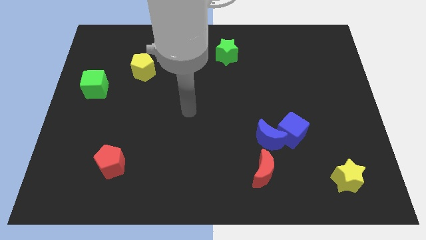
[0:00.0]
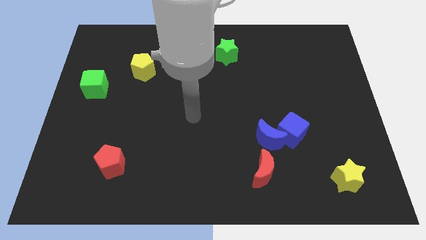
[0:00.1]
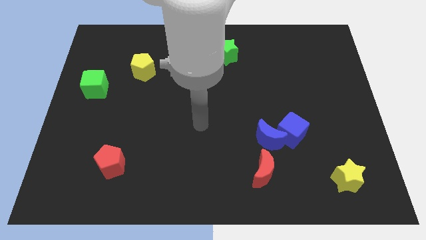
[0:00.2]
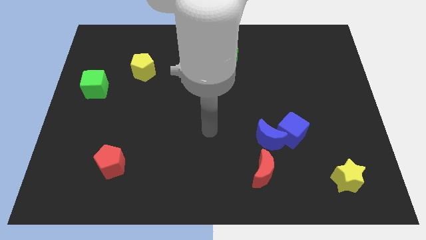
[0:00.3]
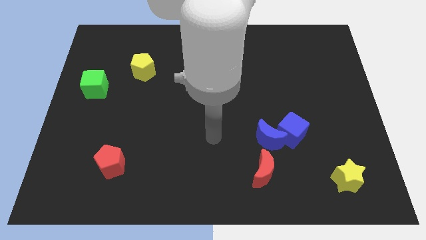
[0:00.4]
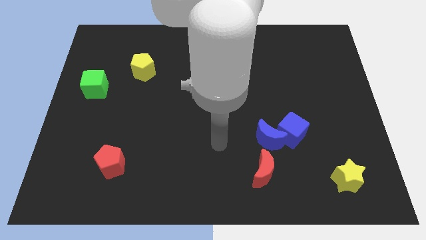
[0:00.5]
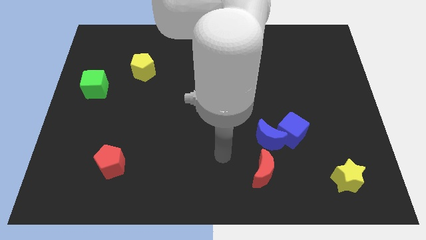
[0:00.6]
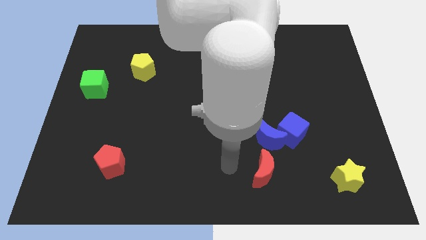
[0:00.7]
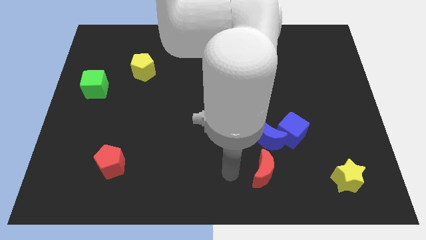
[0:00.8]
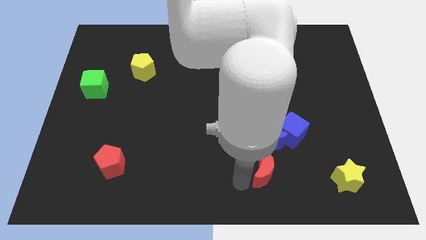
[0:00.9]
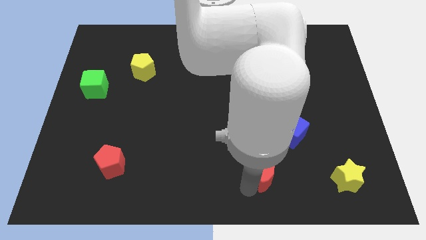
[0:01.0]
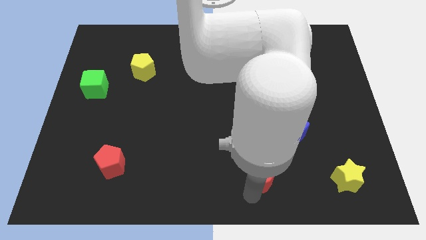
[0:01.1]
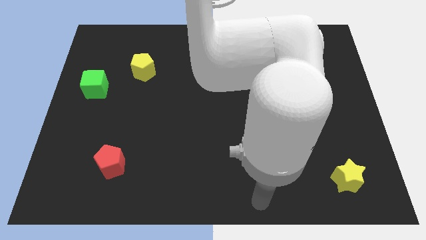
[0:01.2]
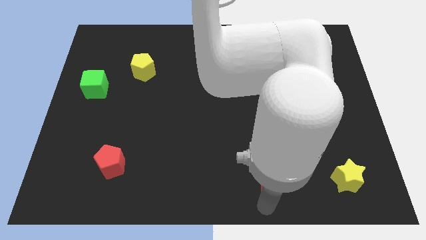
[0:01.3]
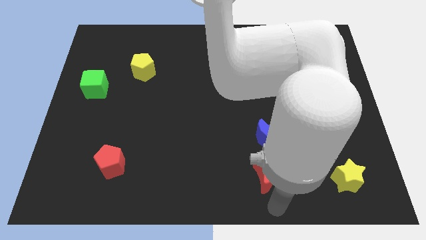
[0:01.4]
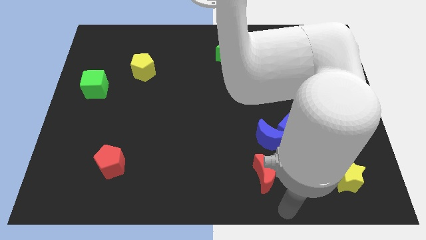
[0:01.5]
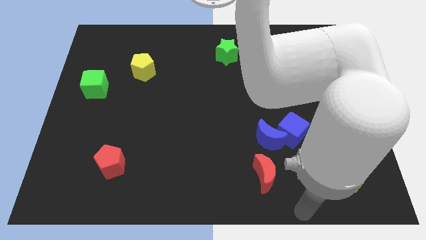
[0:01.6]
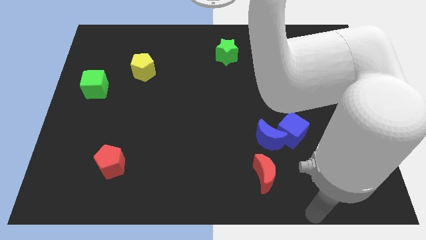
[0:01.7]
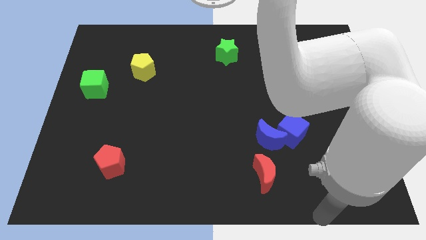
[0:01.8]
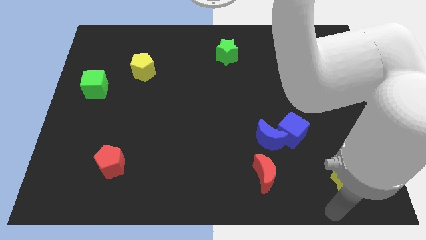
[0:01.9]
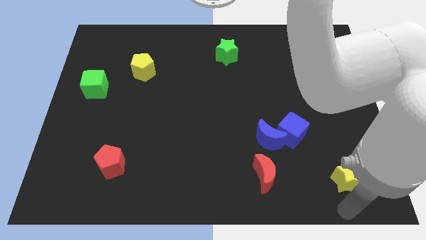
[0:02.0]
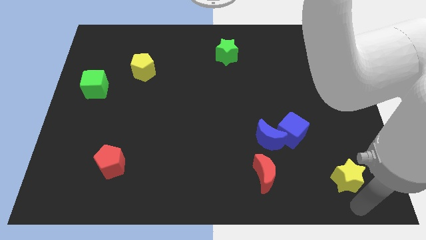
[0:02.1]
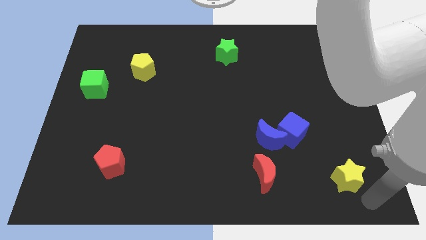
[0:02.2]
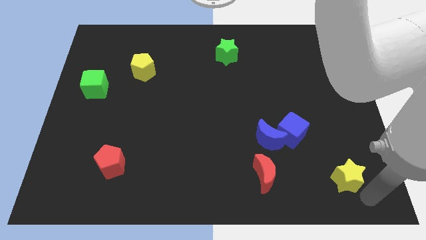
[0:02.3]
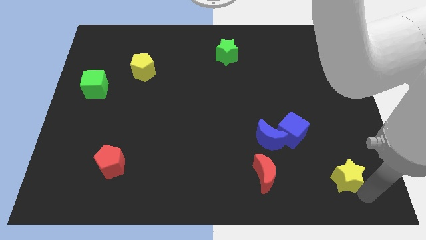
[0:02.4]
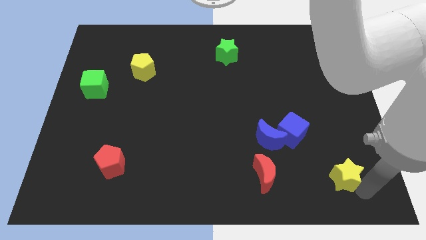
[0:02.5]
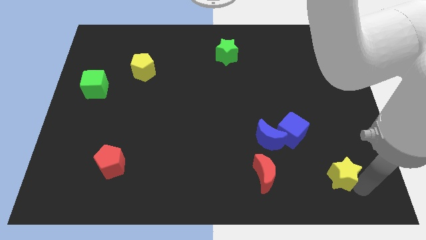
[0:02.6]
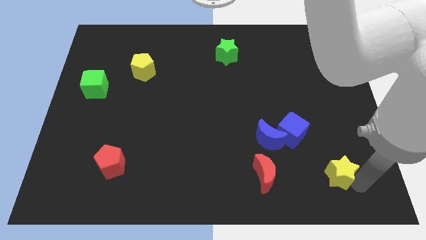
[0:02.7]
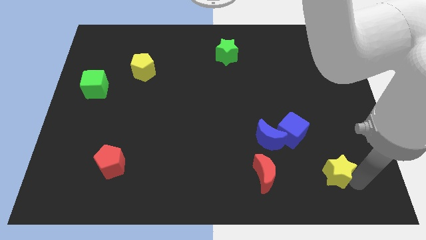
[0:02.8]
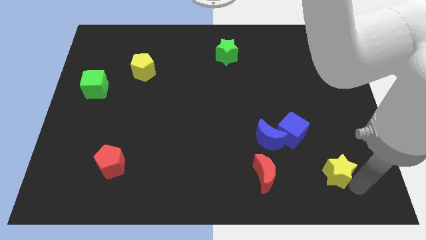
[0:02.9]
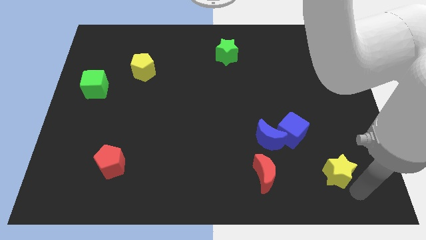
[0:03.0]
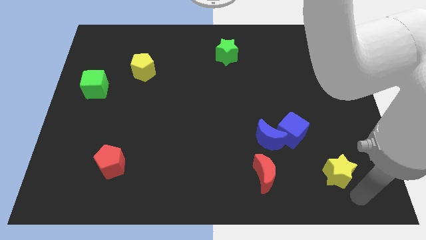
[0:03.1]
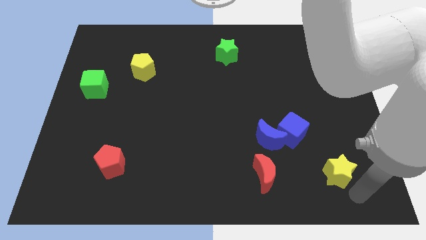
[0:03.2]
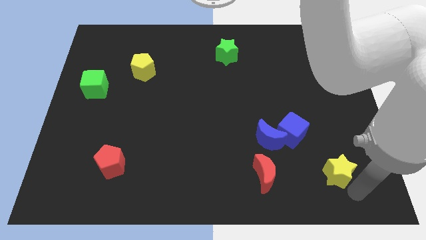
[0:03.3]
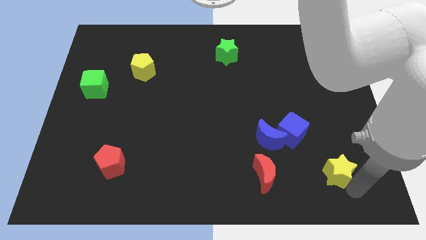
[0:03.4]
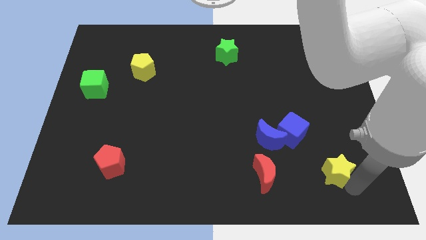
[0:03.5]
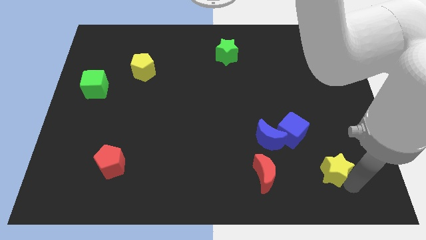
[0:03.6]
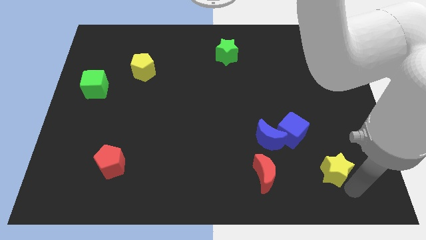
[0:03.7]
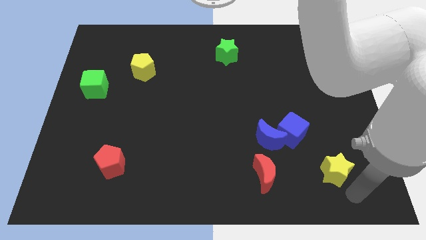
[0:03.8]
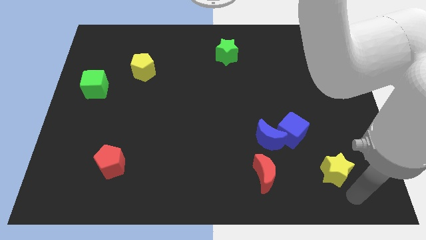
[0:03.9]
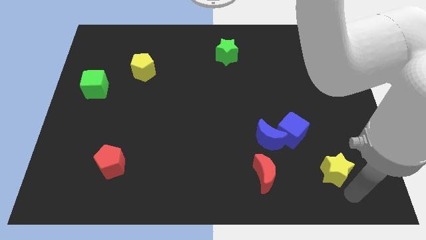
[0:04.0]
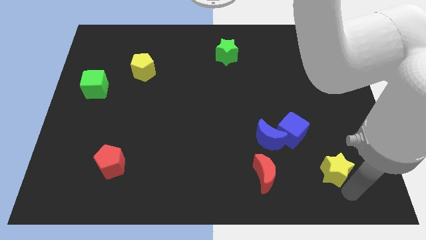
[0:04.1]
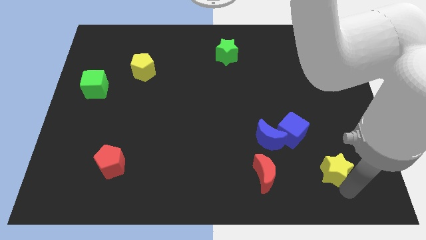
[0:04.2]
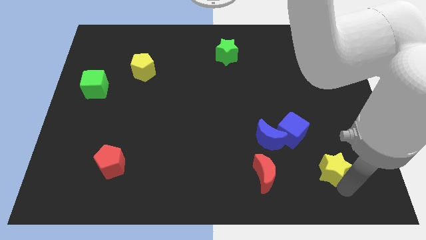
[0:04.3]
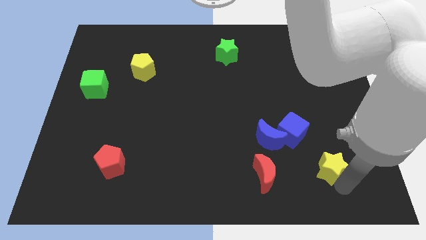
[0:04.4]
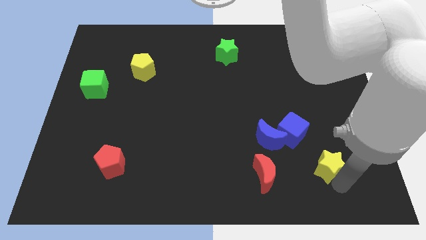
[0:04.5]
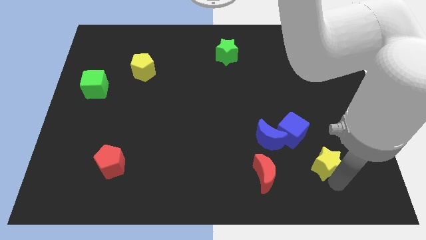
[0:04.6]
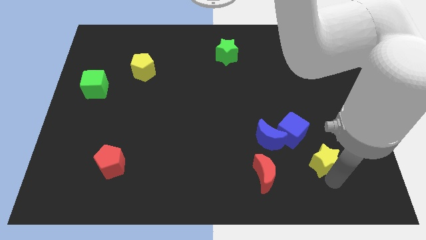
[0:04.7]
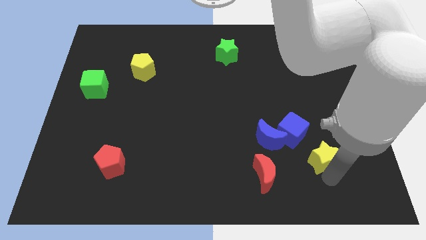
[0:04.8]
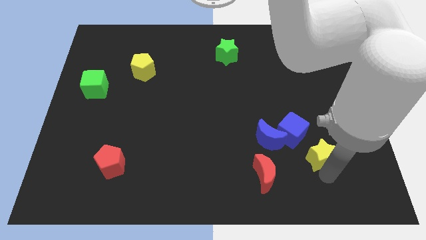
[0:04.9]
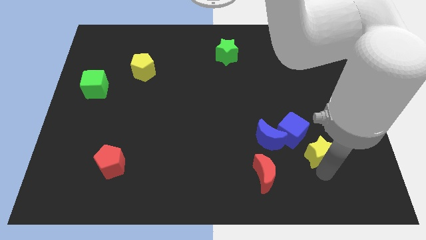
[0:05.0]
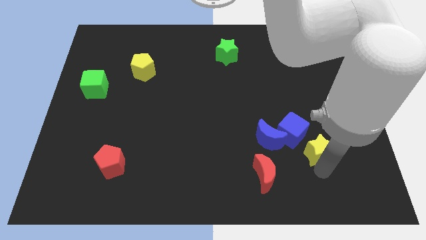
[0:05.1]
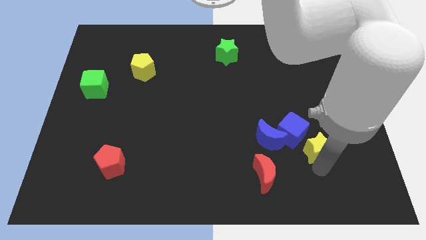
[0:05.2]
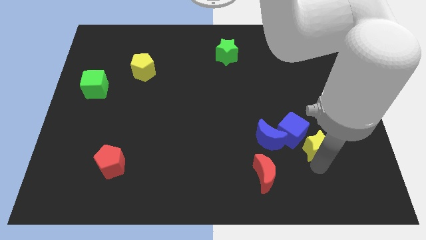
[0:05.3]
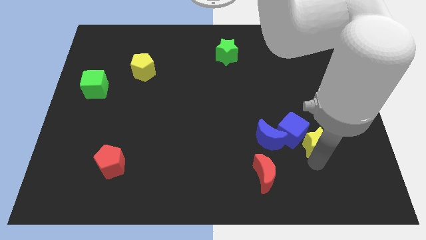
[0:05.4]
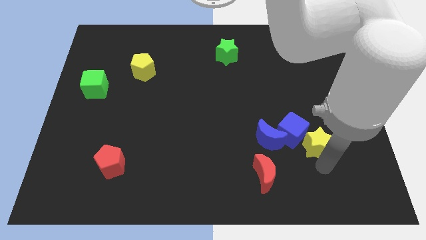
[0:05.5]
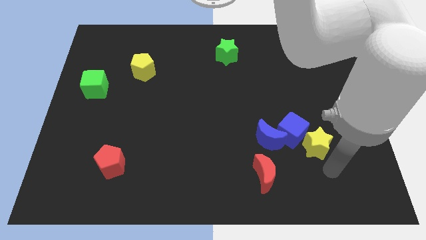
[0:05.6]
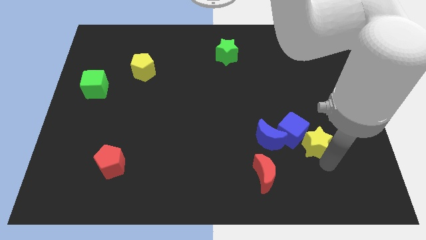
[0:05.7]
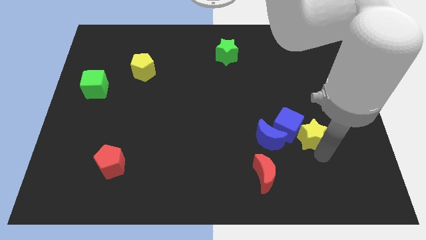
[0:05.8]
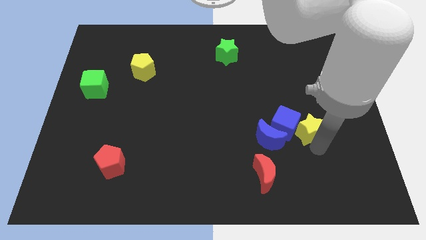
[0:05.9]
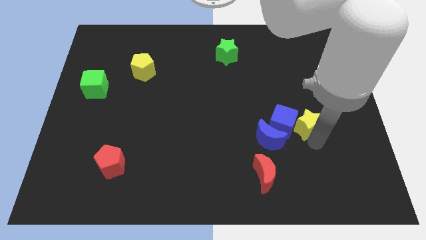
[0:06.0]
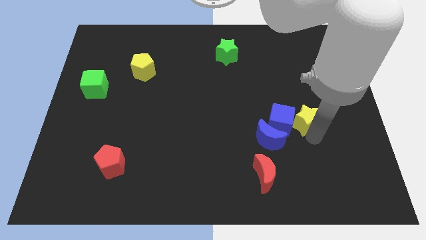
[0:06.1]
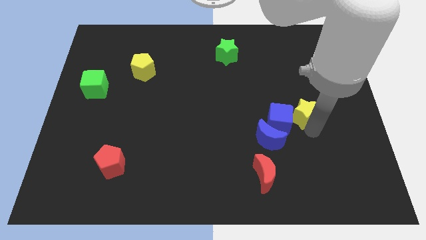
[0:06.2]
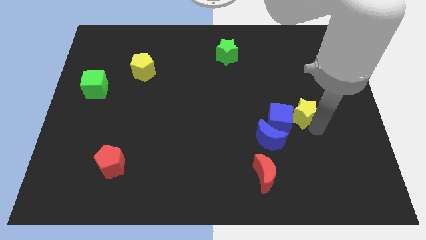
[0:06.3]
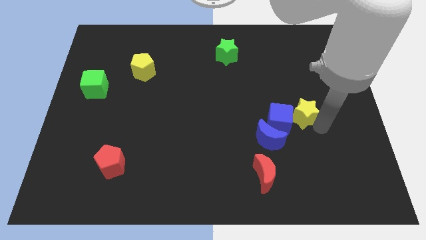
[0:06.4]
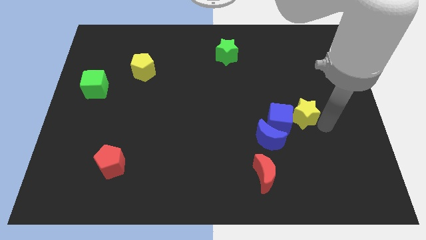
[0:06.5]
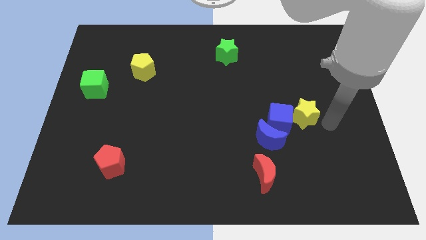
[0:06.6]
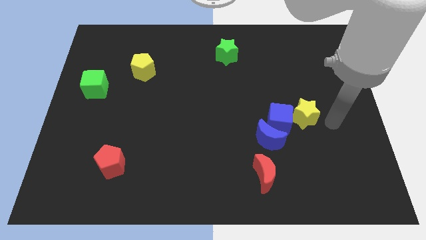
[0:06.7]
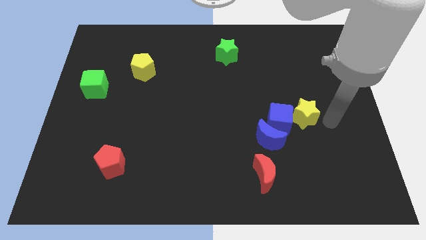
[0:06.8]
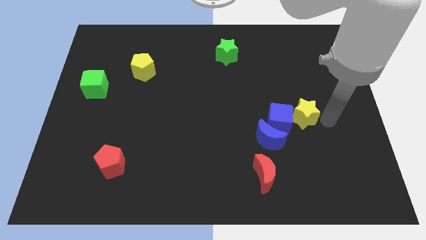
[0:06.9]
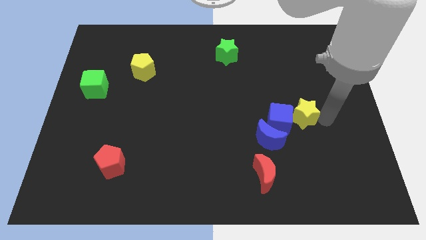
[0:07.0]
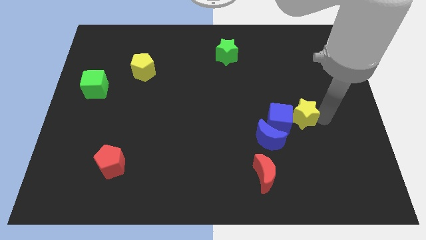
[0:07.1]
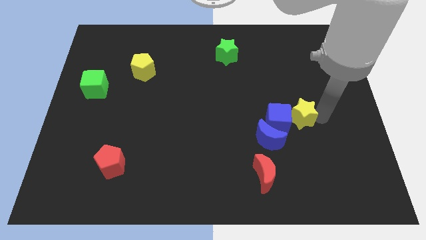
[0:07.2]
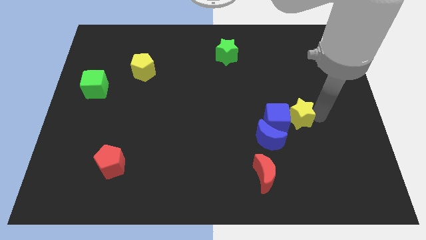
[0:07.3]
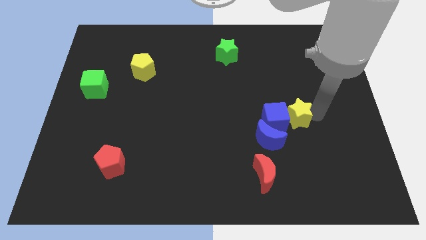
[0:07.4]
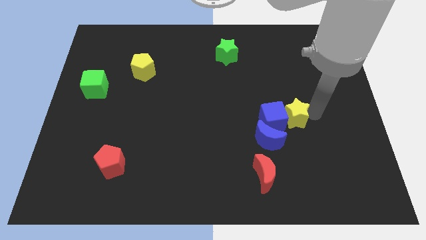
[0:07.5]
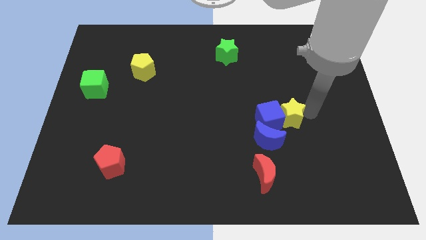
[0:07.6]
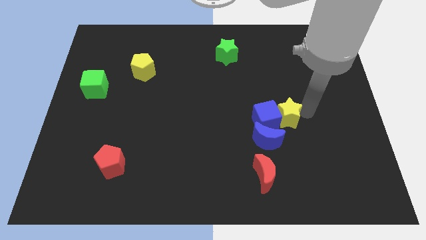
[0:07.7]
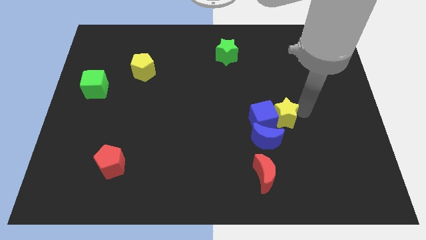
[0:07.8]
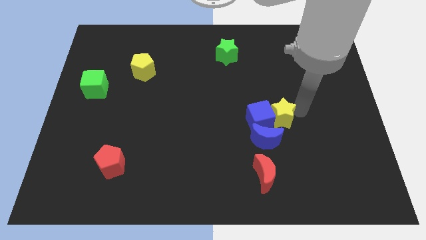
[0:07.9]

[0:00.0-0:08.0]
move the yellow star to the top of the blue moon

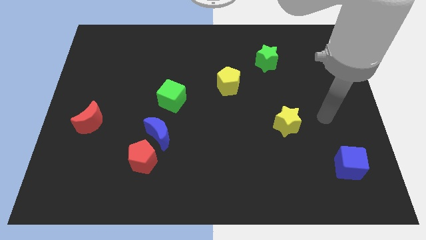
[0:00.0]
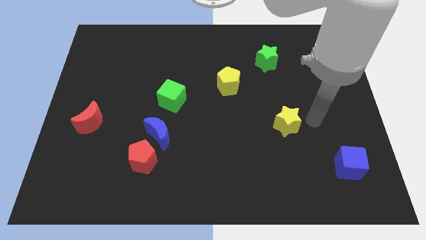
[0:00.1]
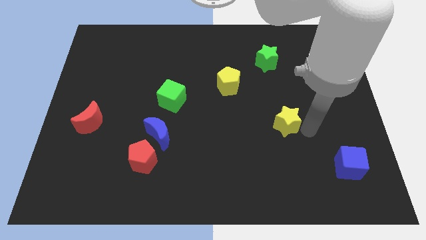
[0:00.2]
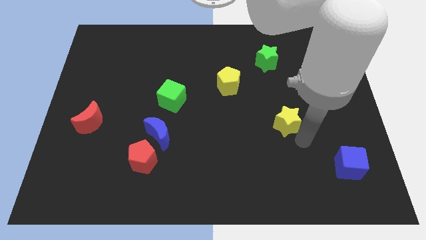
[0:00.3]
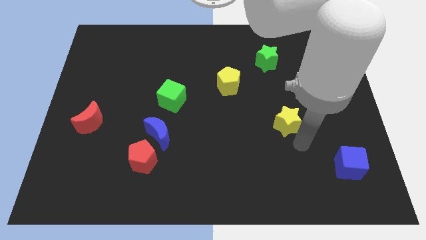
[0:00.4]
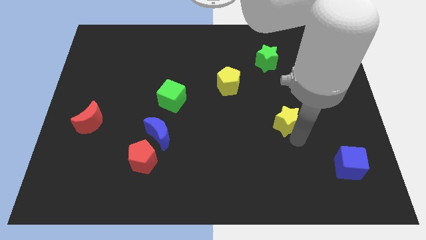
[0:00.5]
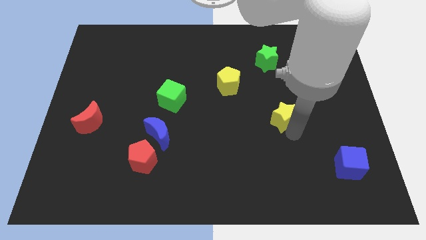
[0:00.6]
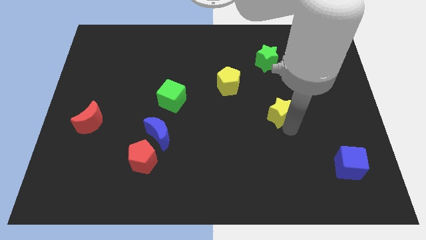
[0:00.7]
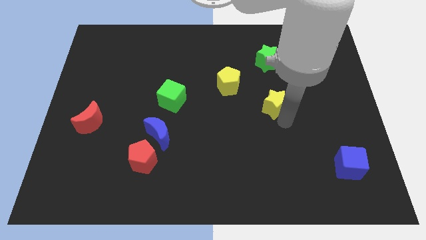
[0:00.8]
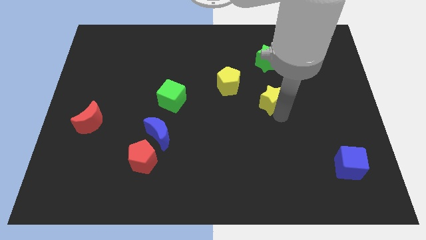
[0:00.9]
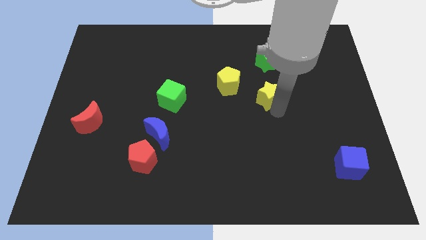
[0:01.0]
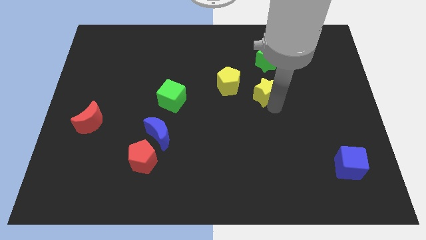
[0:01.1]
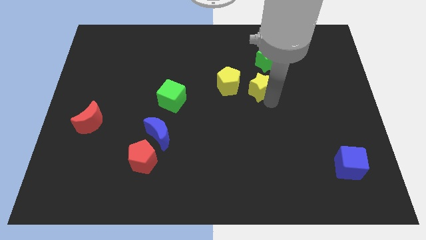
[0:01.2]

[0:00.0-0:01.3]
slide the yellow star to the bottom left of the green star
